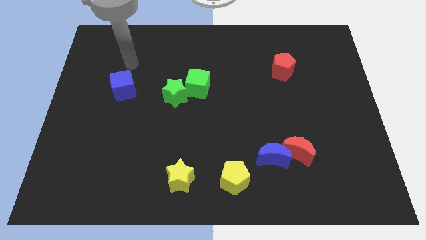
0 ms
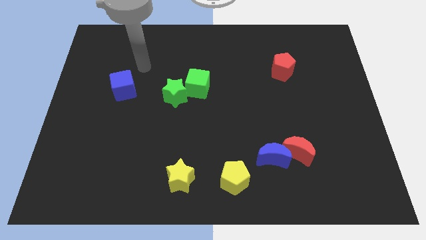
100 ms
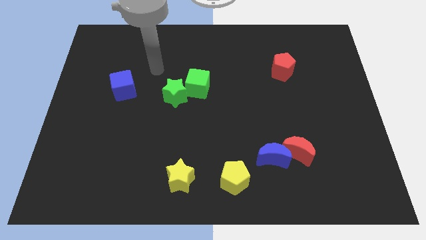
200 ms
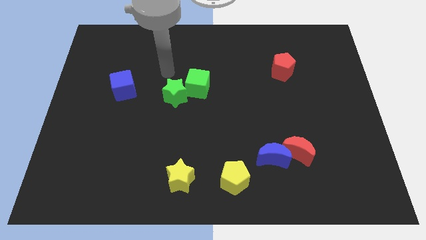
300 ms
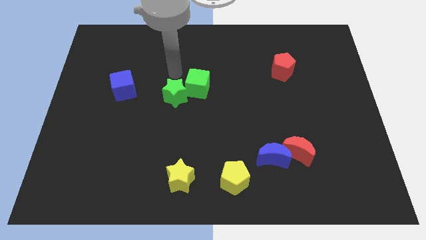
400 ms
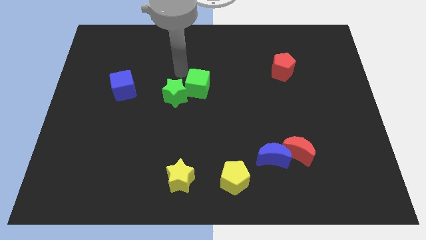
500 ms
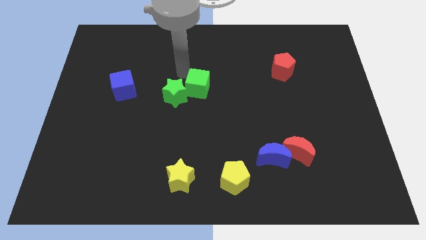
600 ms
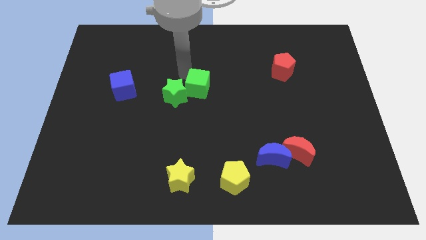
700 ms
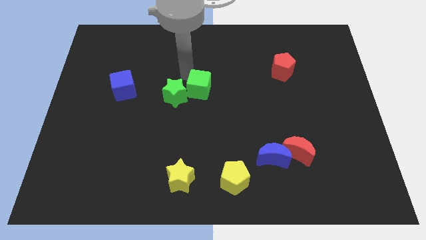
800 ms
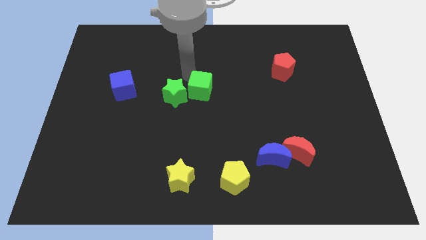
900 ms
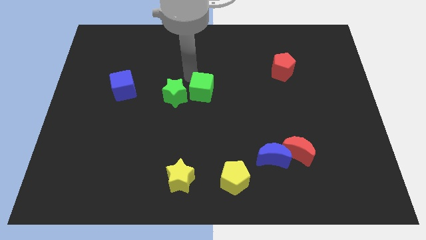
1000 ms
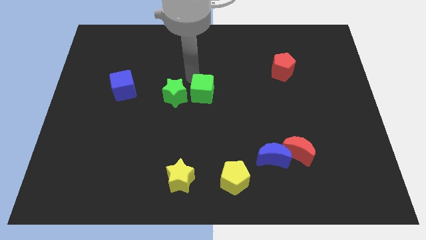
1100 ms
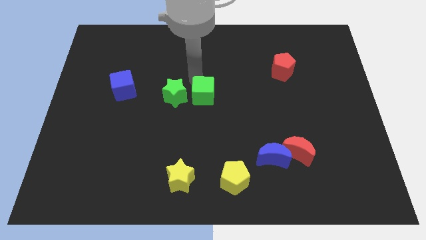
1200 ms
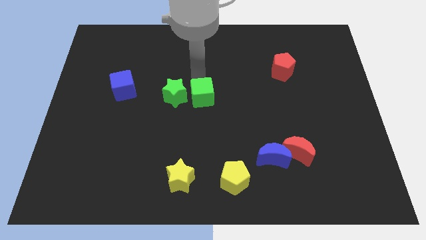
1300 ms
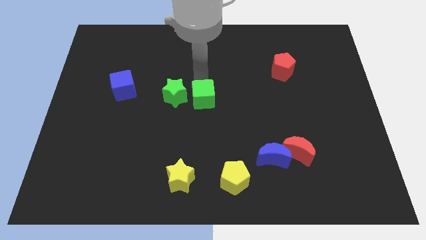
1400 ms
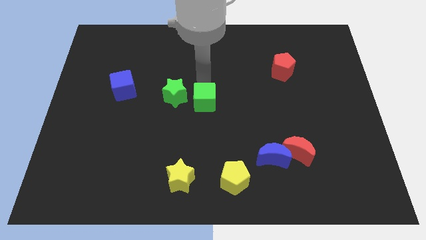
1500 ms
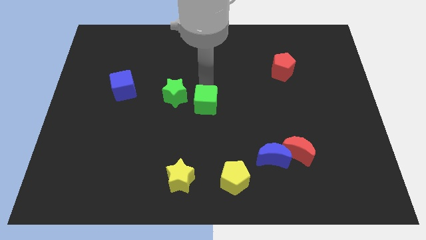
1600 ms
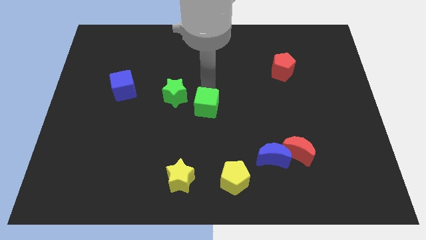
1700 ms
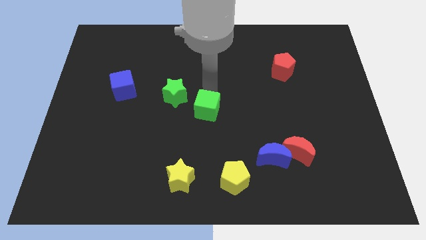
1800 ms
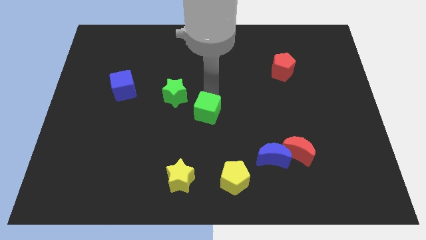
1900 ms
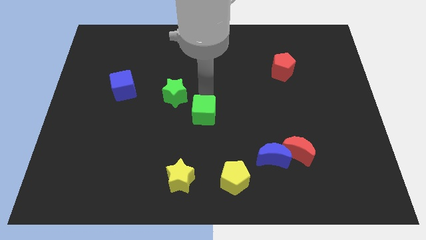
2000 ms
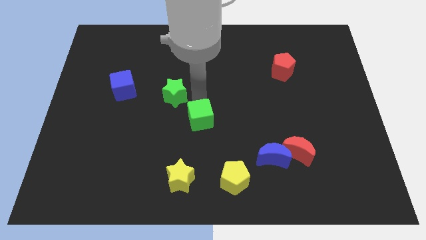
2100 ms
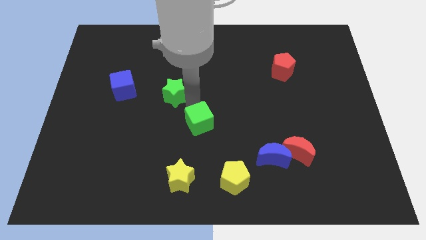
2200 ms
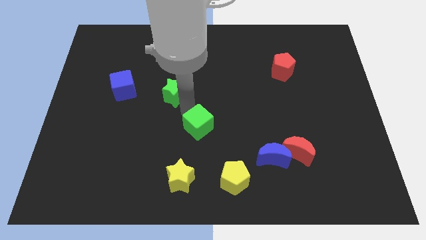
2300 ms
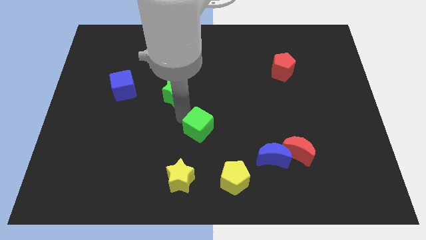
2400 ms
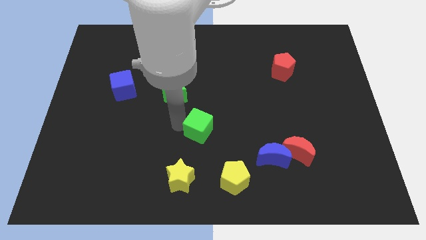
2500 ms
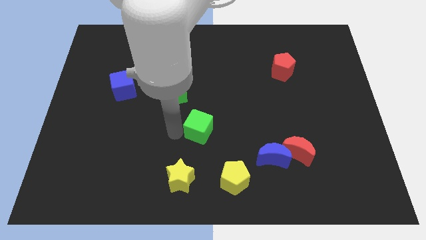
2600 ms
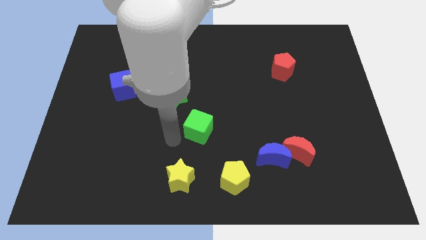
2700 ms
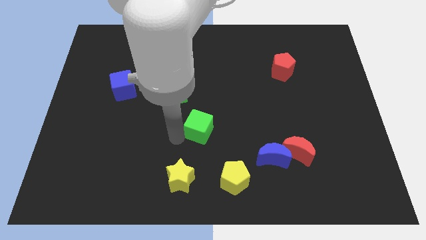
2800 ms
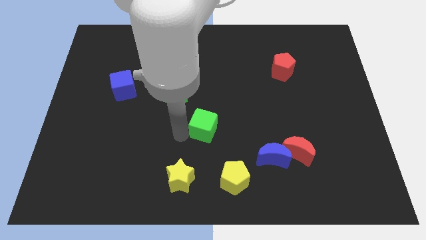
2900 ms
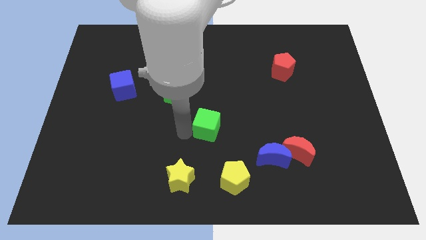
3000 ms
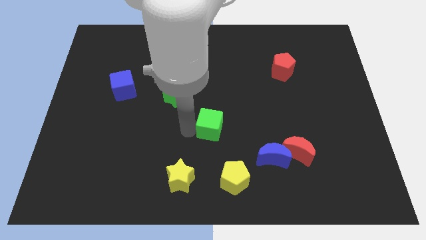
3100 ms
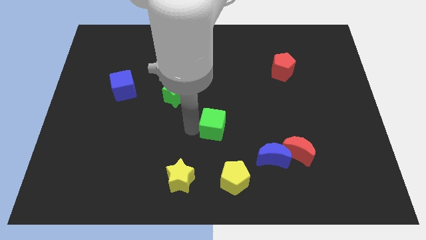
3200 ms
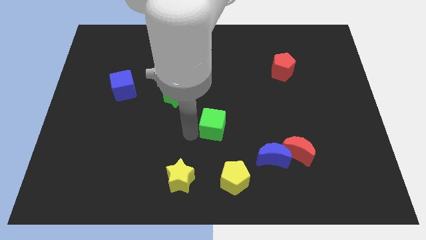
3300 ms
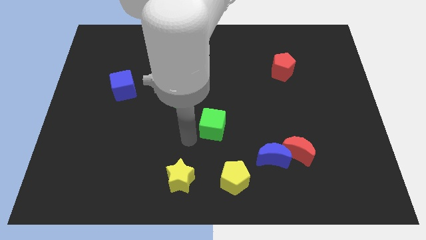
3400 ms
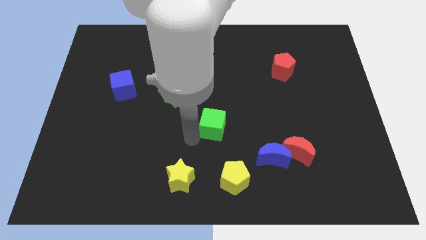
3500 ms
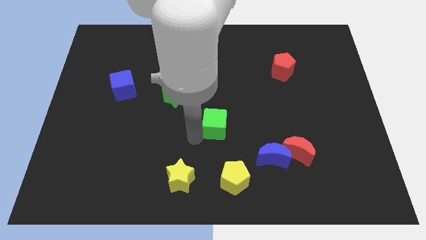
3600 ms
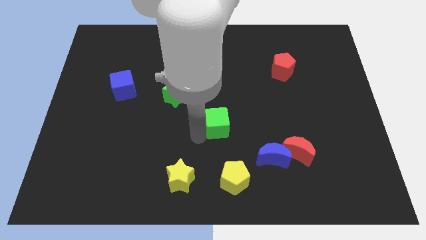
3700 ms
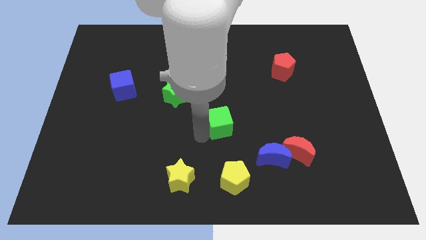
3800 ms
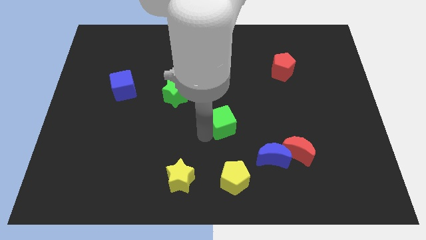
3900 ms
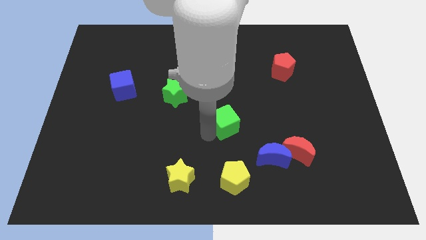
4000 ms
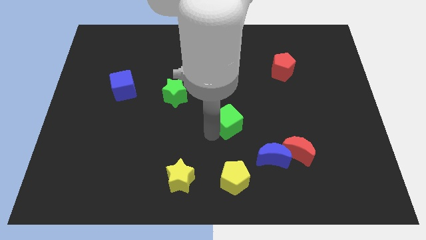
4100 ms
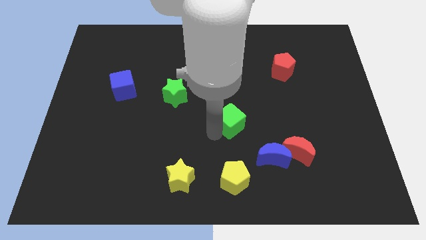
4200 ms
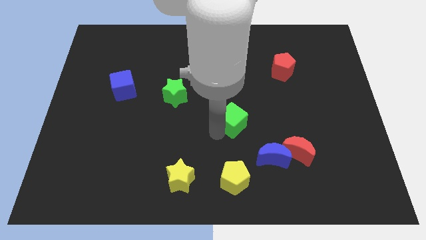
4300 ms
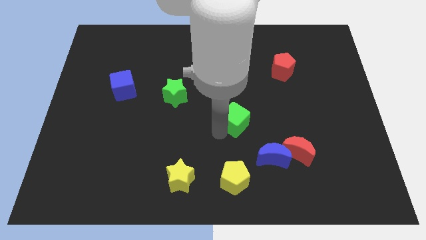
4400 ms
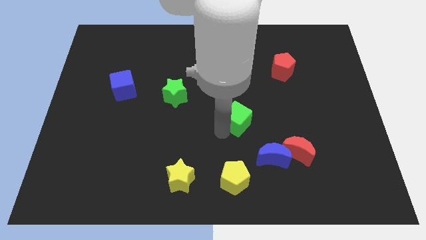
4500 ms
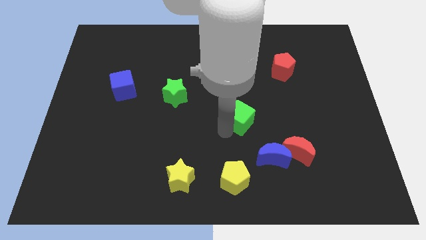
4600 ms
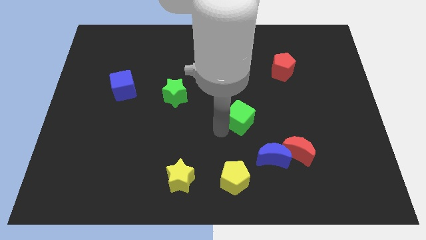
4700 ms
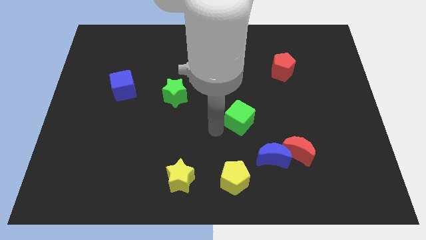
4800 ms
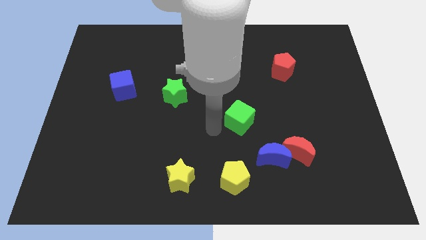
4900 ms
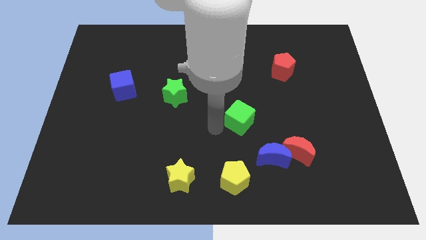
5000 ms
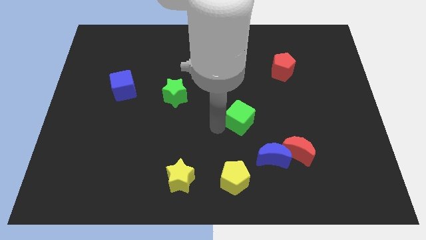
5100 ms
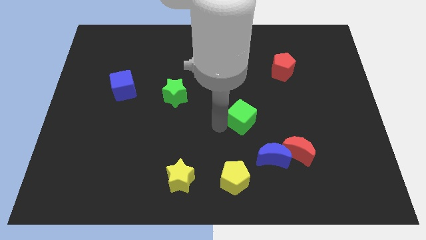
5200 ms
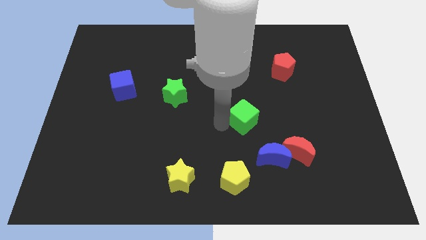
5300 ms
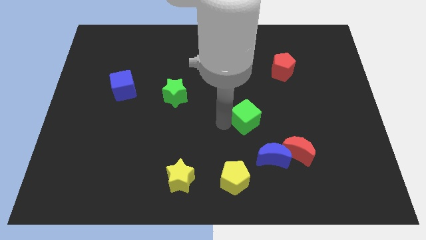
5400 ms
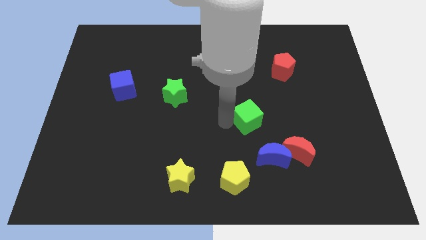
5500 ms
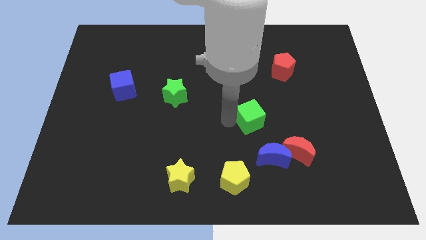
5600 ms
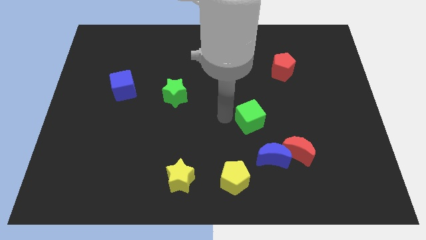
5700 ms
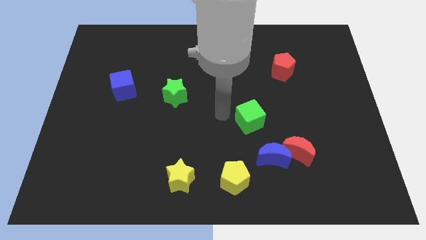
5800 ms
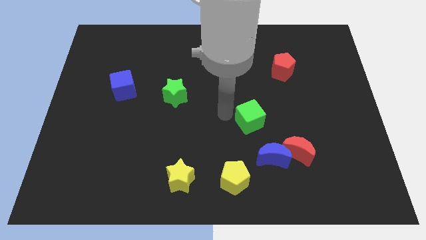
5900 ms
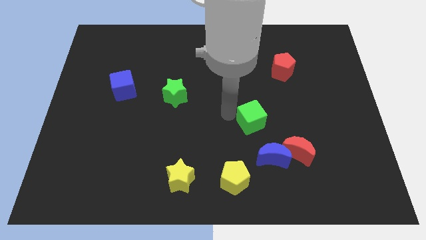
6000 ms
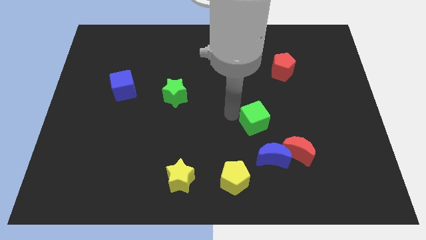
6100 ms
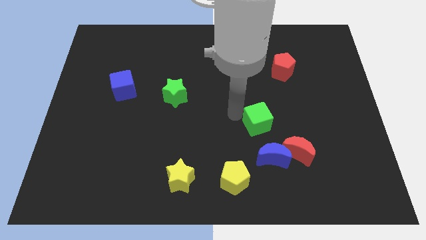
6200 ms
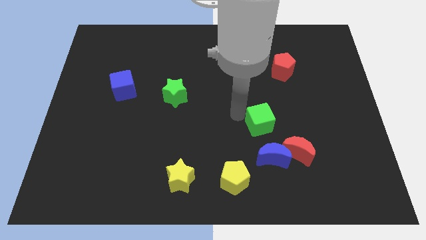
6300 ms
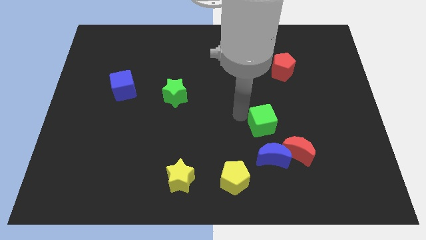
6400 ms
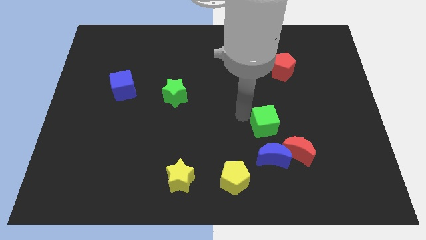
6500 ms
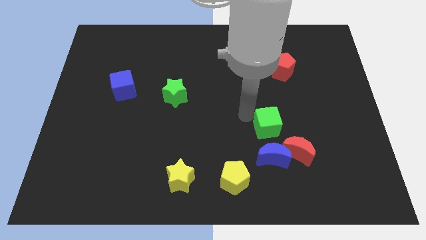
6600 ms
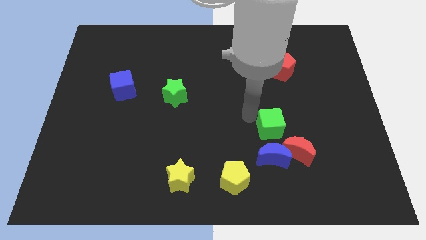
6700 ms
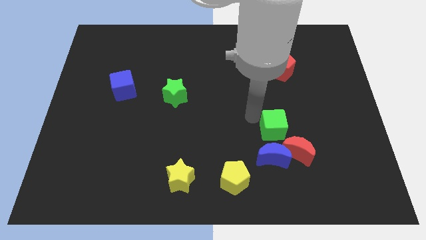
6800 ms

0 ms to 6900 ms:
slide the green cube diagonally up and to the right of the blue moon
